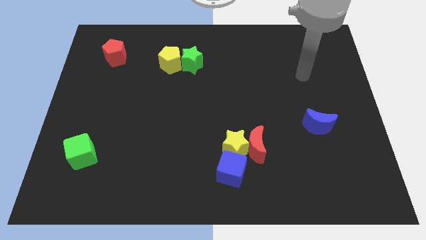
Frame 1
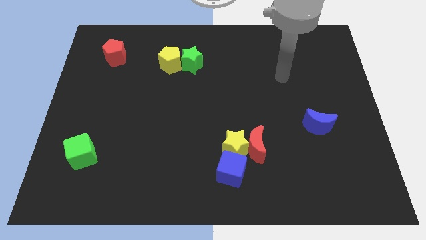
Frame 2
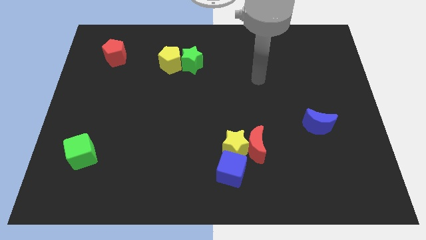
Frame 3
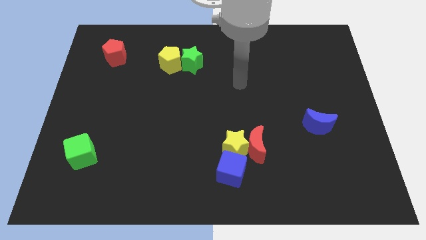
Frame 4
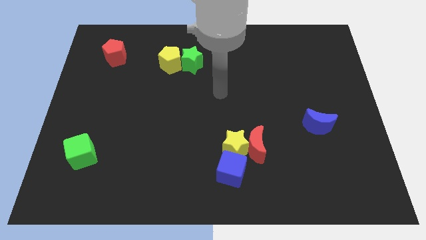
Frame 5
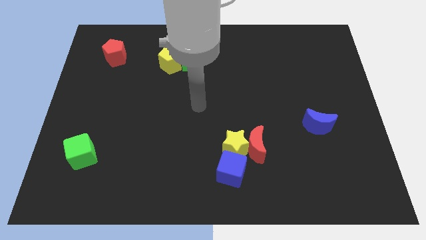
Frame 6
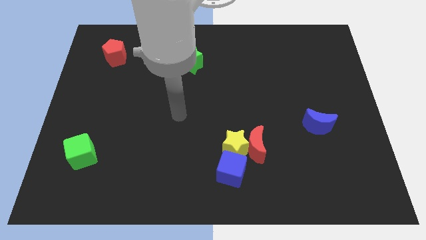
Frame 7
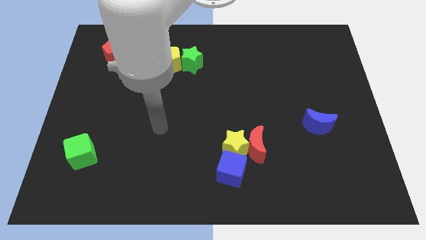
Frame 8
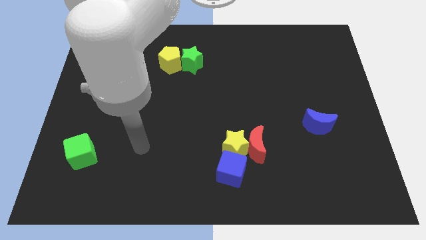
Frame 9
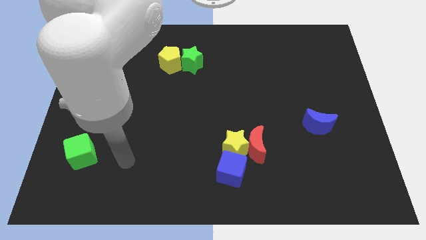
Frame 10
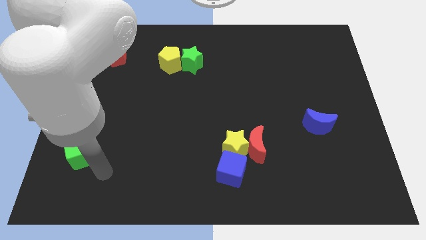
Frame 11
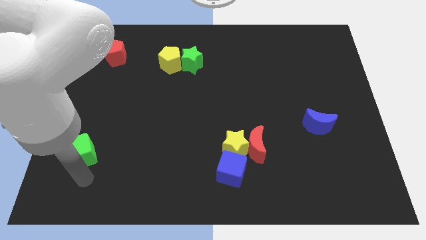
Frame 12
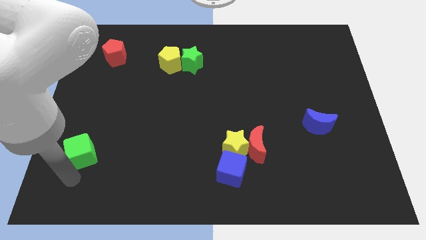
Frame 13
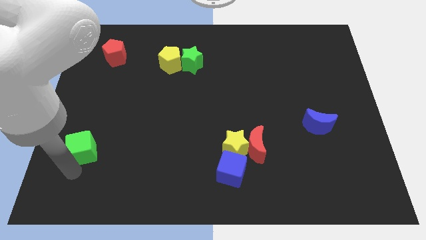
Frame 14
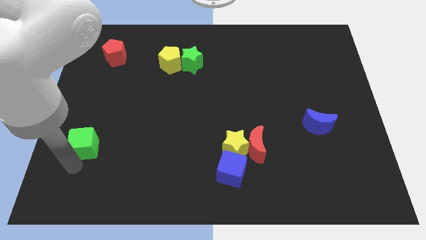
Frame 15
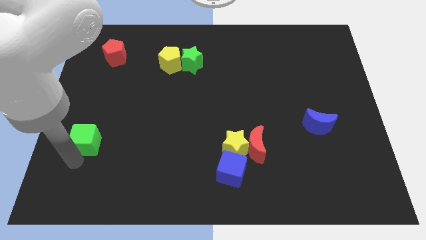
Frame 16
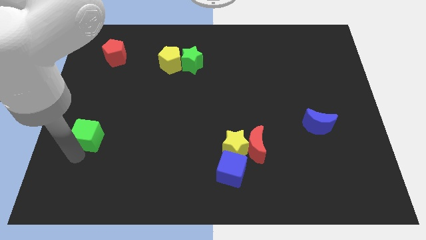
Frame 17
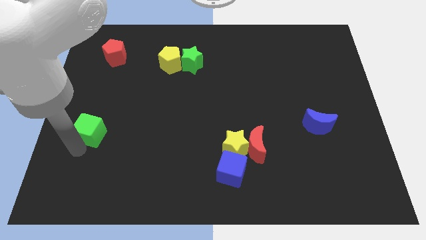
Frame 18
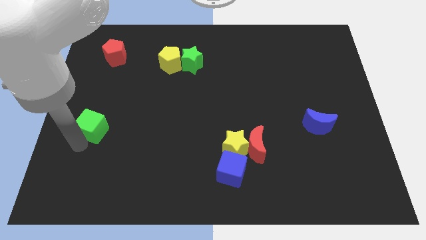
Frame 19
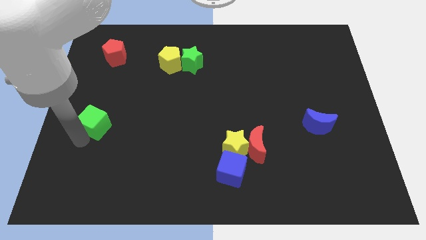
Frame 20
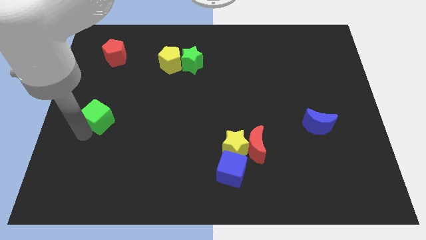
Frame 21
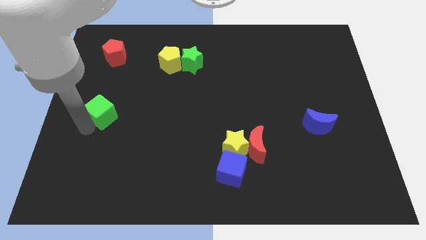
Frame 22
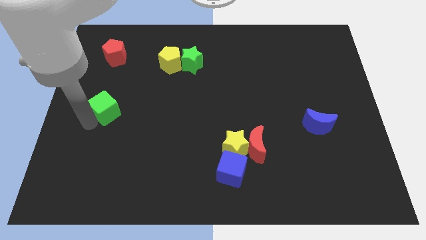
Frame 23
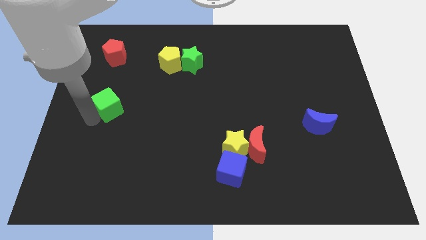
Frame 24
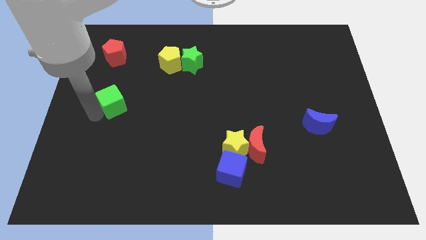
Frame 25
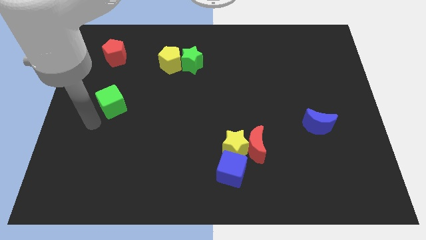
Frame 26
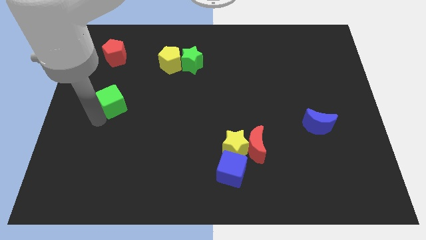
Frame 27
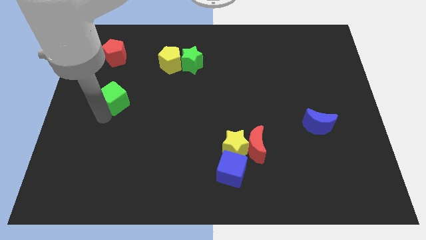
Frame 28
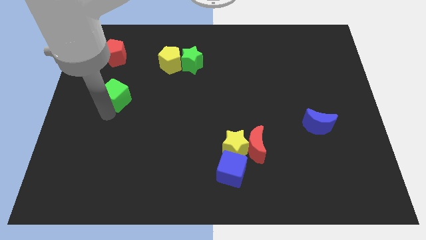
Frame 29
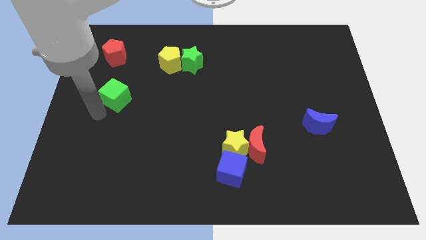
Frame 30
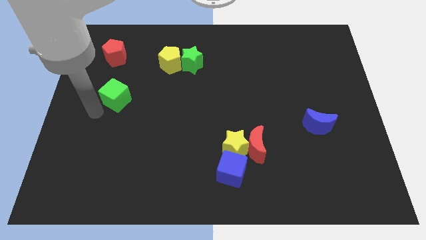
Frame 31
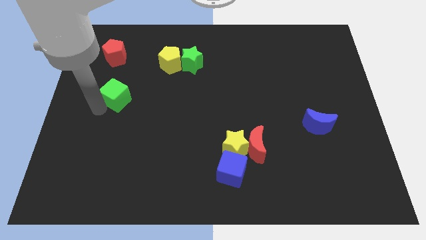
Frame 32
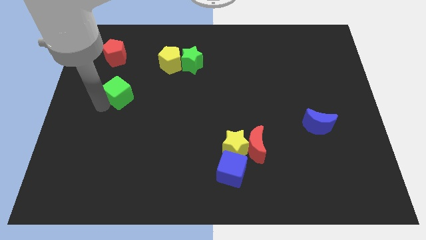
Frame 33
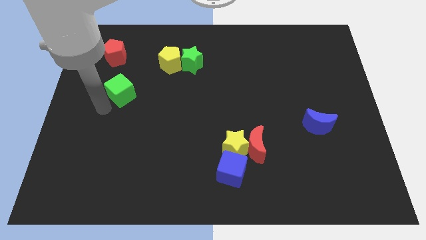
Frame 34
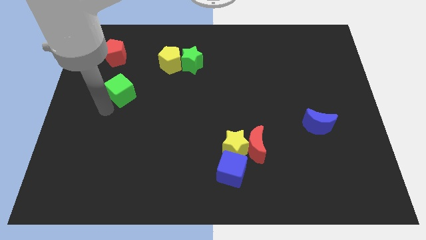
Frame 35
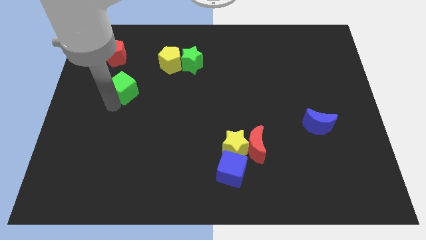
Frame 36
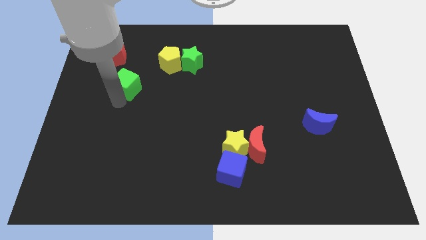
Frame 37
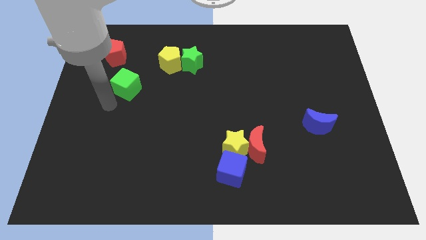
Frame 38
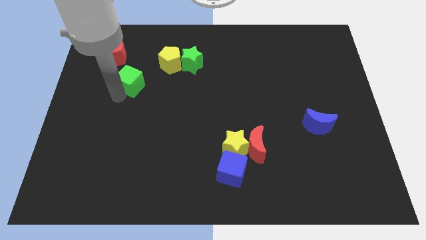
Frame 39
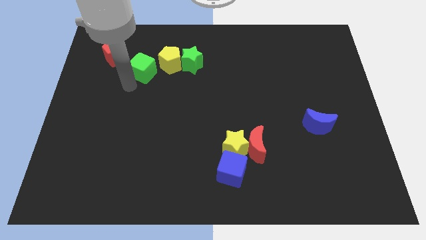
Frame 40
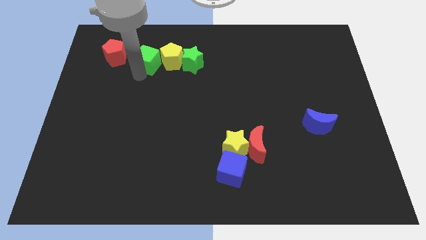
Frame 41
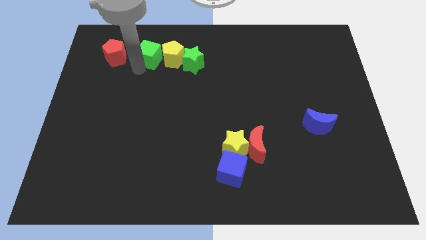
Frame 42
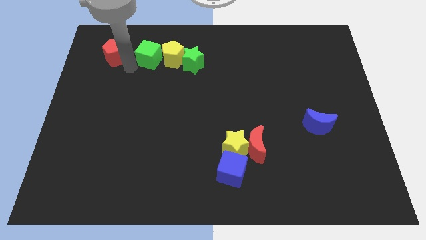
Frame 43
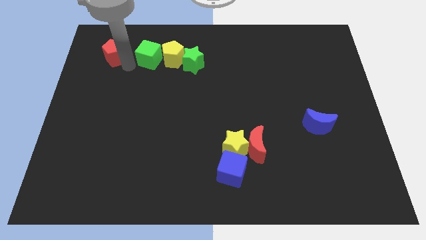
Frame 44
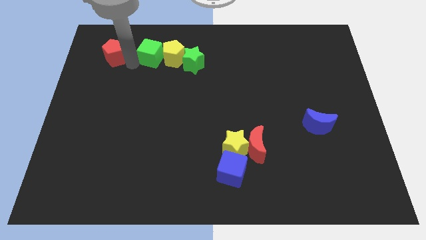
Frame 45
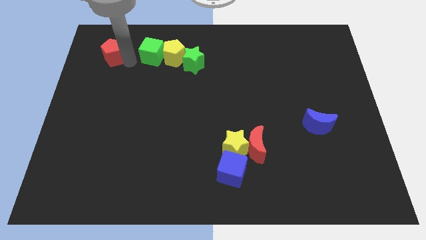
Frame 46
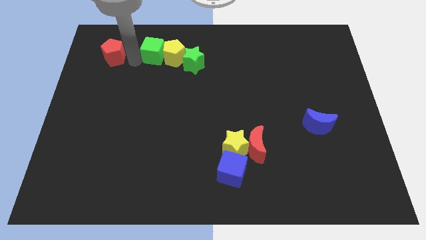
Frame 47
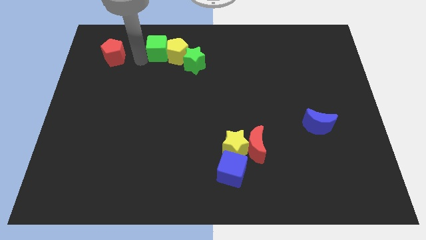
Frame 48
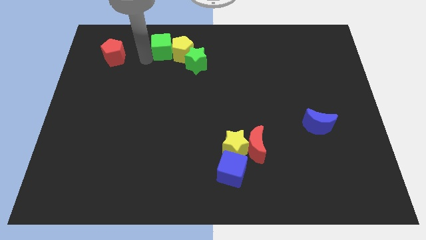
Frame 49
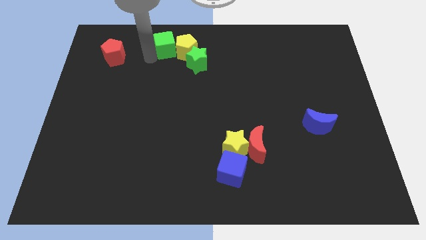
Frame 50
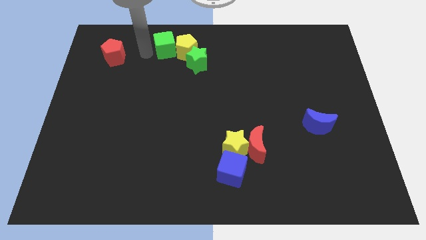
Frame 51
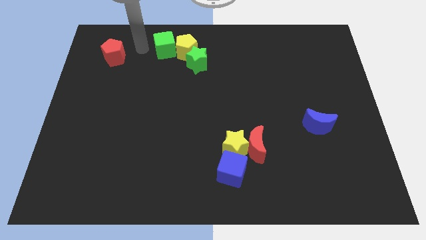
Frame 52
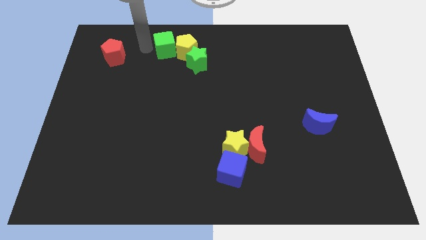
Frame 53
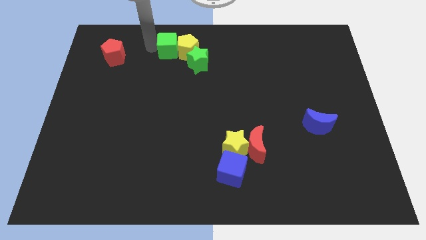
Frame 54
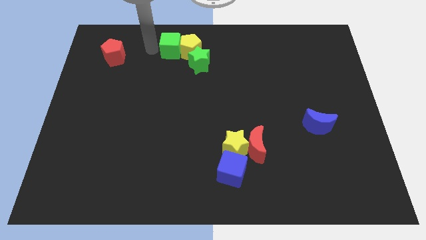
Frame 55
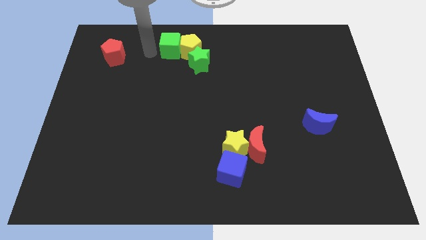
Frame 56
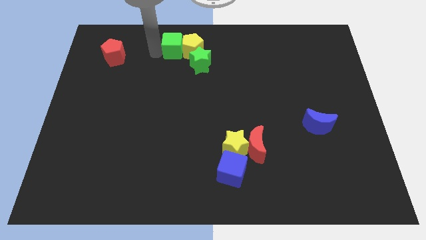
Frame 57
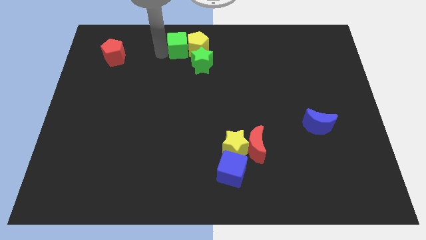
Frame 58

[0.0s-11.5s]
move the green cube to the top
